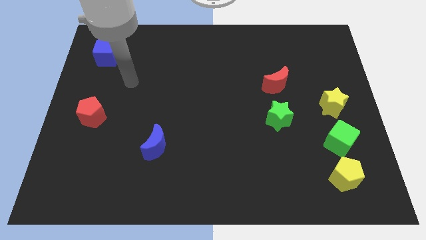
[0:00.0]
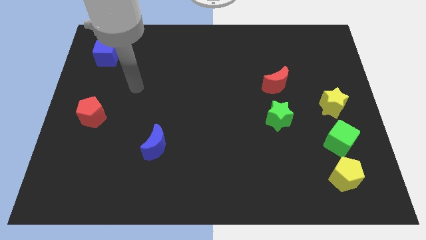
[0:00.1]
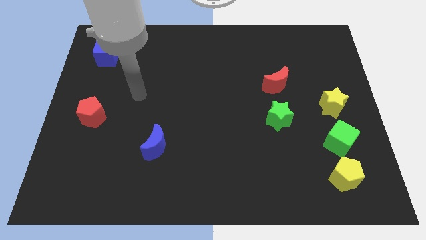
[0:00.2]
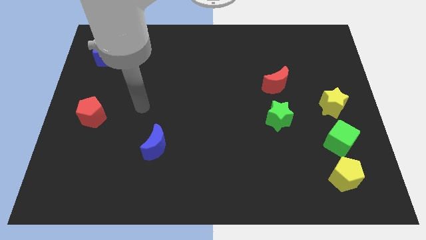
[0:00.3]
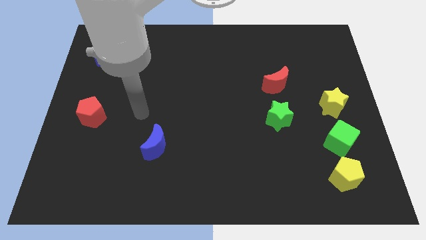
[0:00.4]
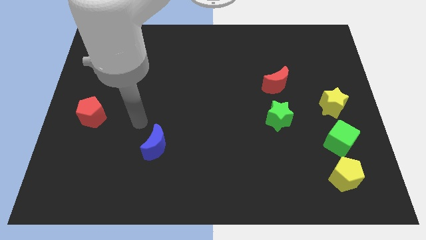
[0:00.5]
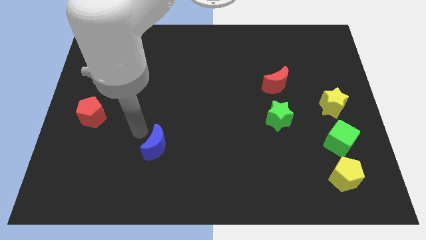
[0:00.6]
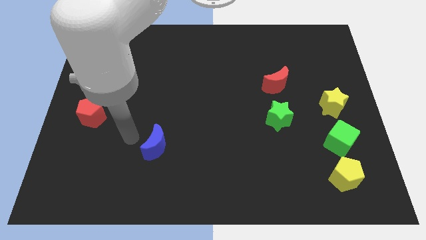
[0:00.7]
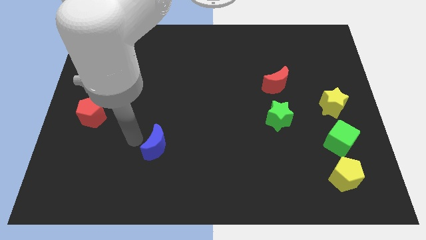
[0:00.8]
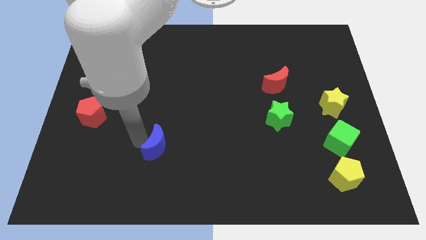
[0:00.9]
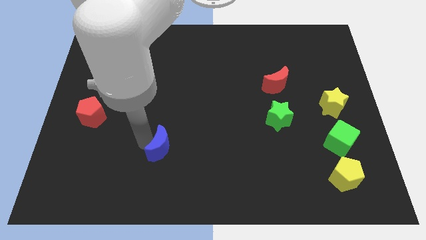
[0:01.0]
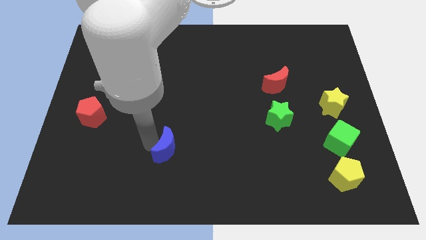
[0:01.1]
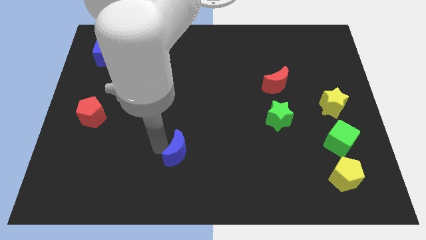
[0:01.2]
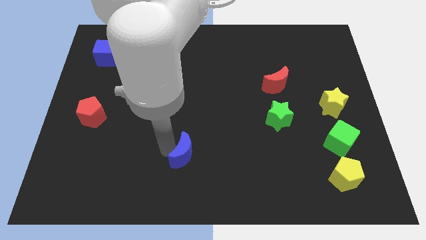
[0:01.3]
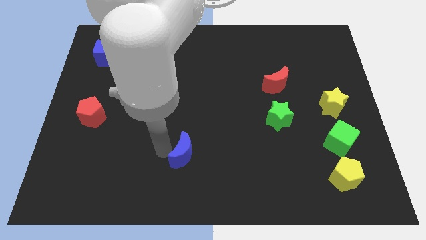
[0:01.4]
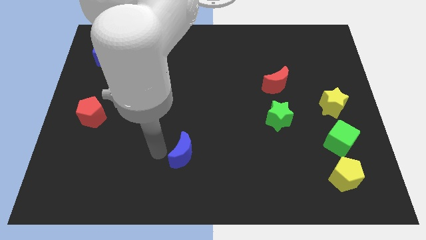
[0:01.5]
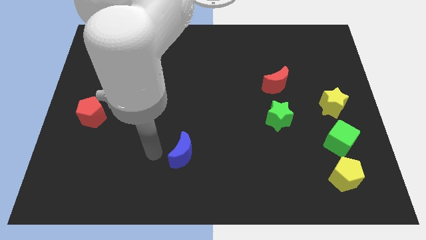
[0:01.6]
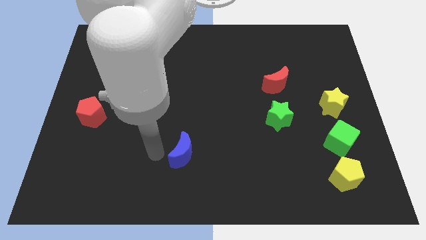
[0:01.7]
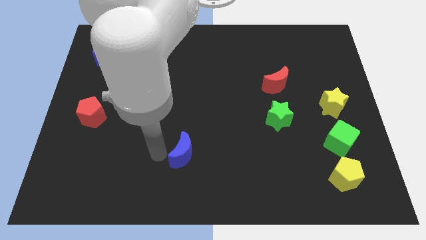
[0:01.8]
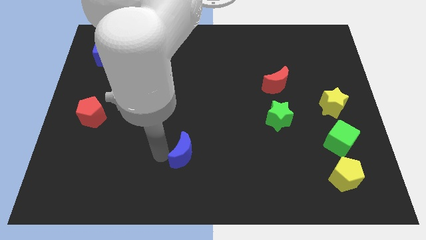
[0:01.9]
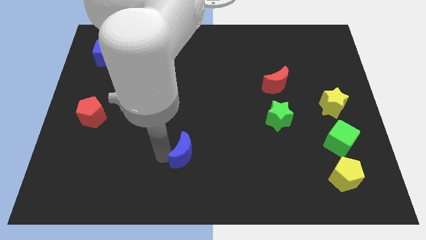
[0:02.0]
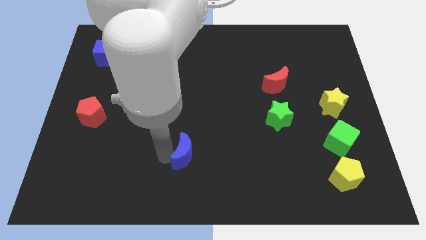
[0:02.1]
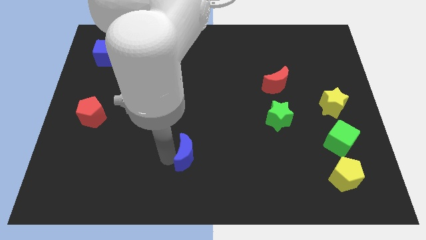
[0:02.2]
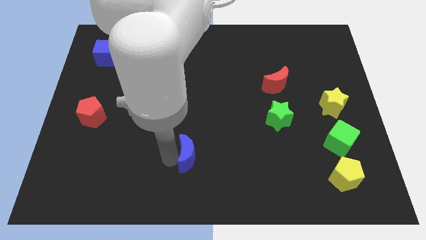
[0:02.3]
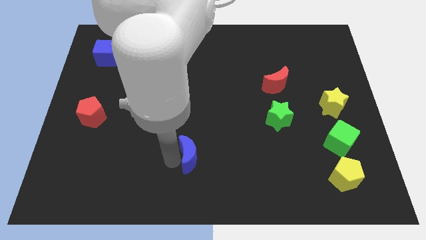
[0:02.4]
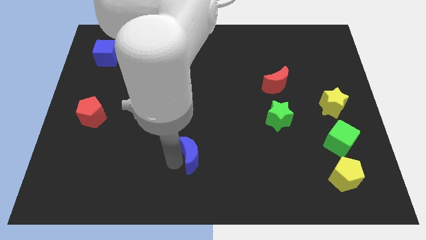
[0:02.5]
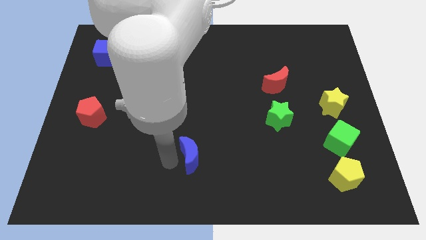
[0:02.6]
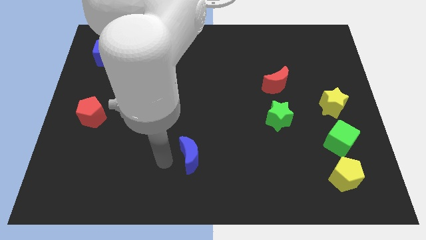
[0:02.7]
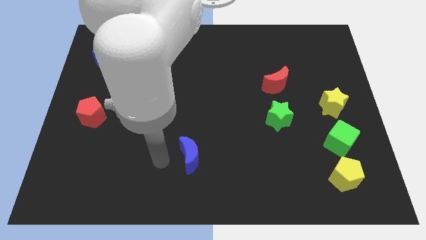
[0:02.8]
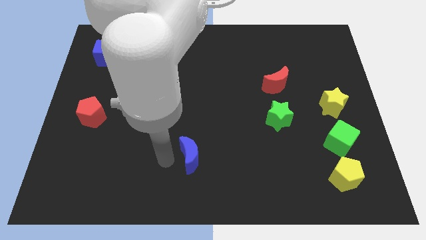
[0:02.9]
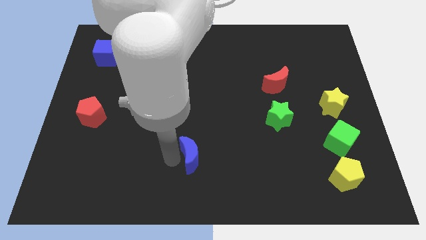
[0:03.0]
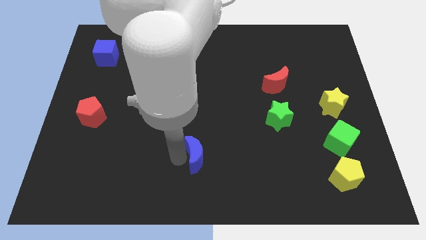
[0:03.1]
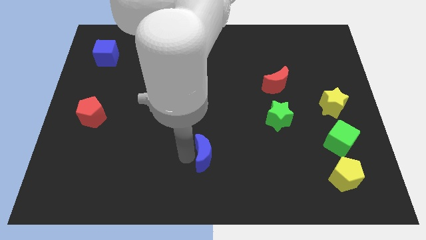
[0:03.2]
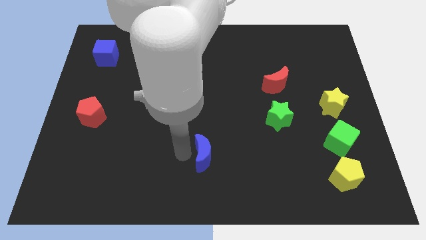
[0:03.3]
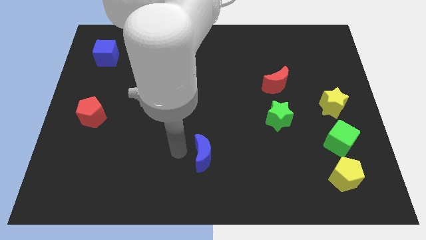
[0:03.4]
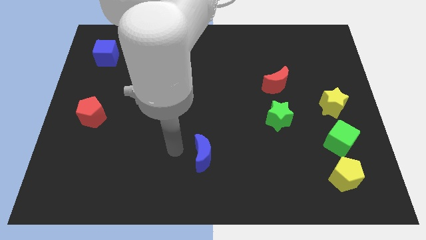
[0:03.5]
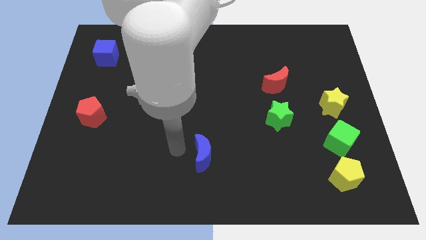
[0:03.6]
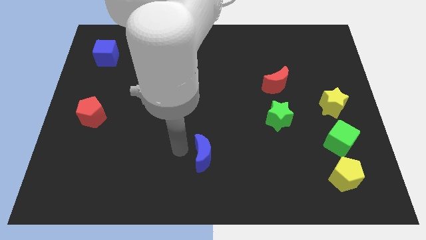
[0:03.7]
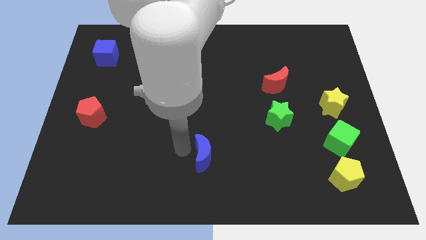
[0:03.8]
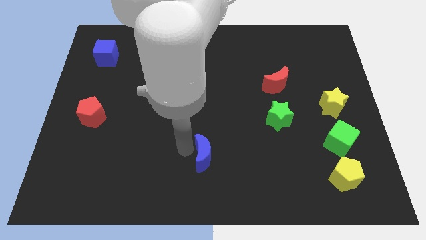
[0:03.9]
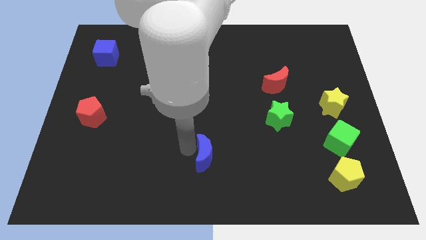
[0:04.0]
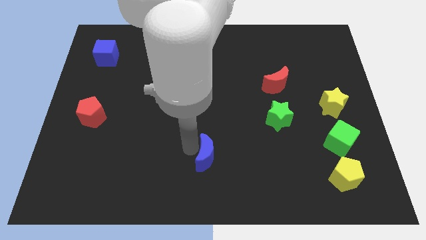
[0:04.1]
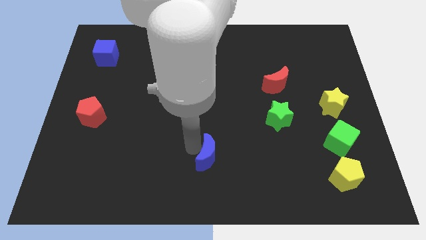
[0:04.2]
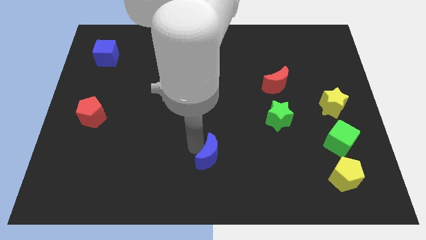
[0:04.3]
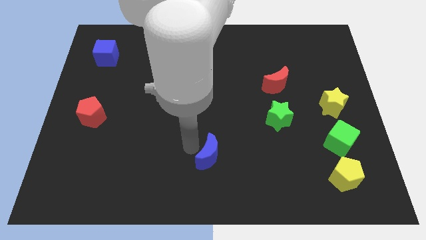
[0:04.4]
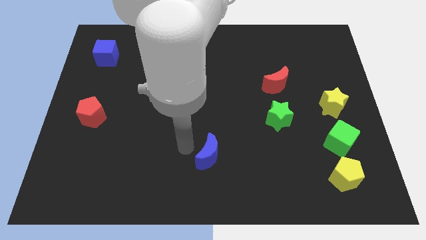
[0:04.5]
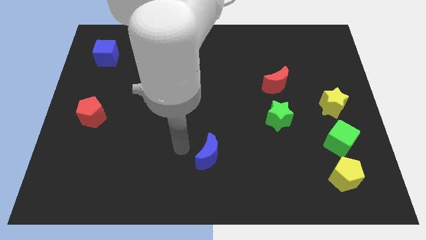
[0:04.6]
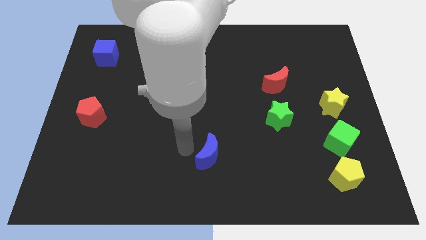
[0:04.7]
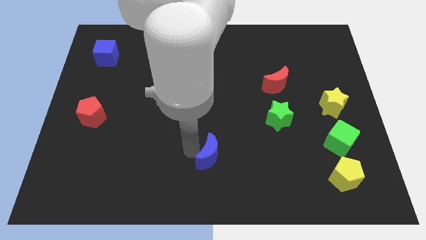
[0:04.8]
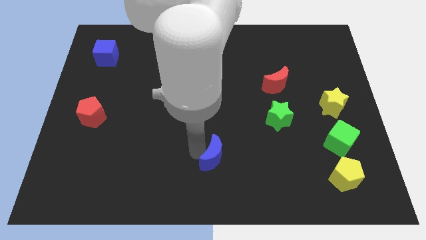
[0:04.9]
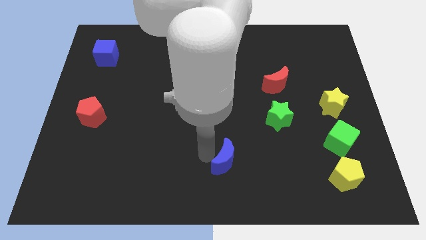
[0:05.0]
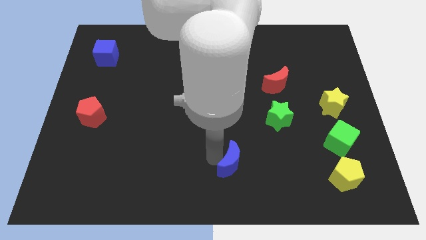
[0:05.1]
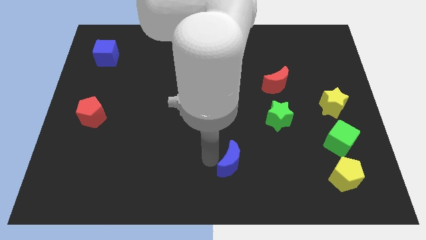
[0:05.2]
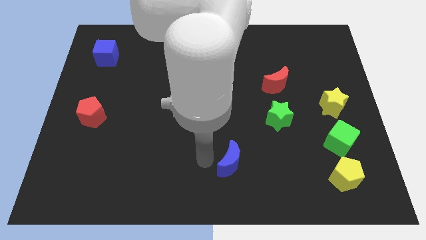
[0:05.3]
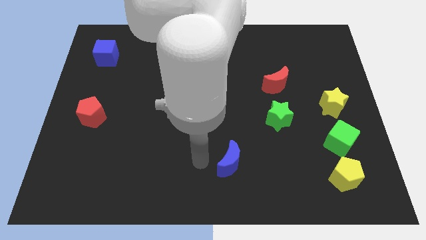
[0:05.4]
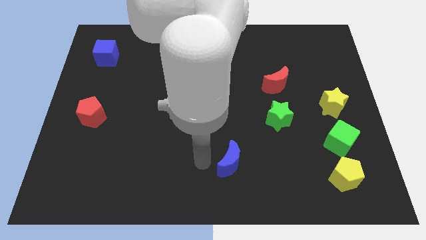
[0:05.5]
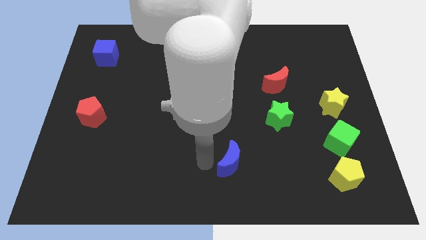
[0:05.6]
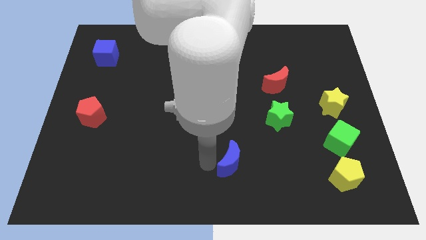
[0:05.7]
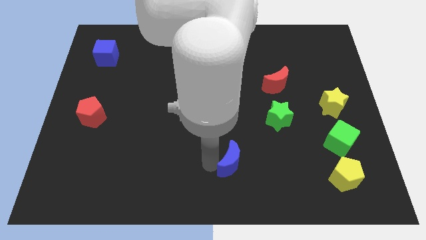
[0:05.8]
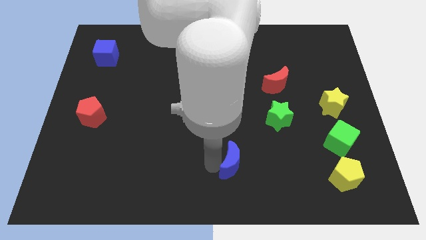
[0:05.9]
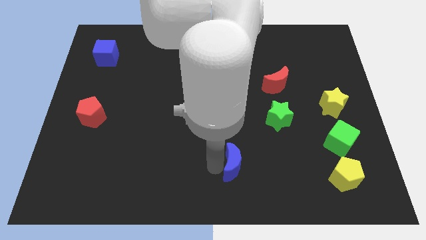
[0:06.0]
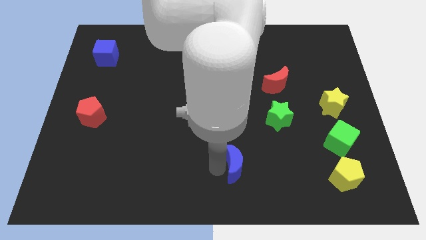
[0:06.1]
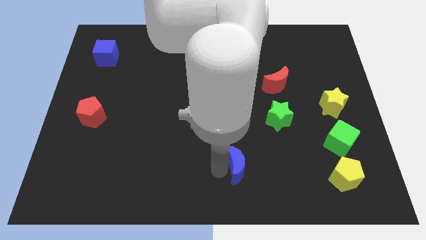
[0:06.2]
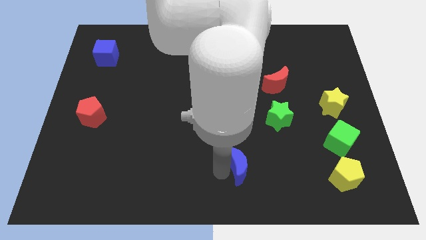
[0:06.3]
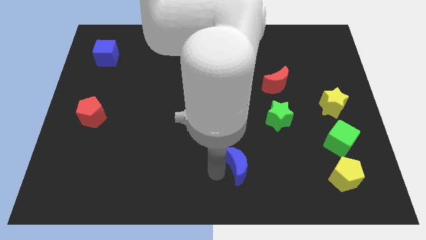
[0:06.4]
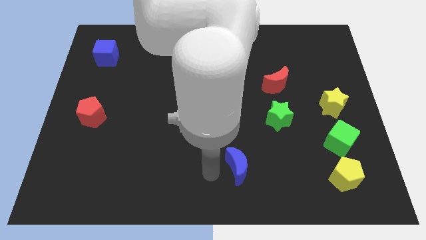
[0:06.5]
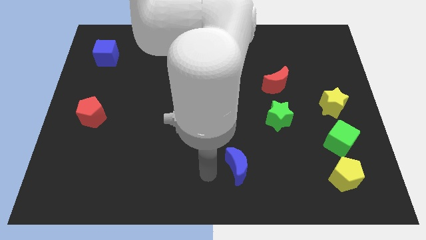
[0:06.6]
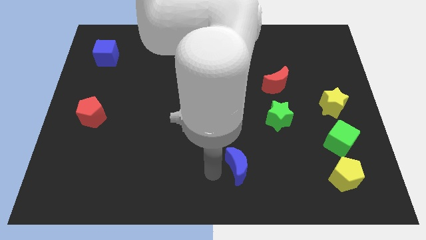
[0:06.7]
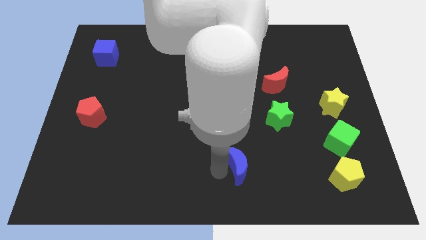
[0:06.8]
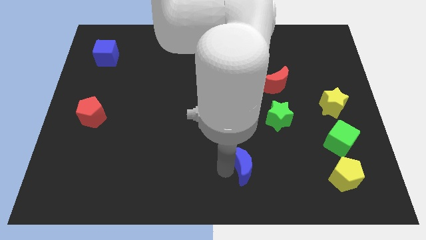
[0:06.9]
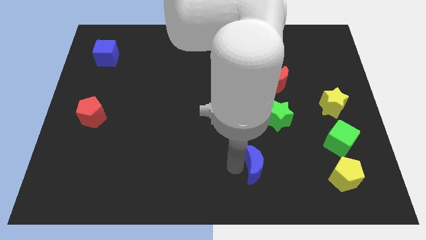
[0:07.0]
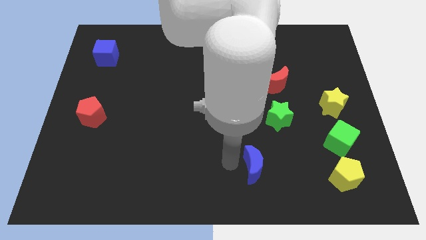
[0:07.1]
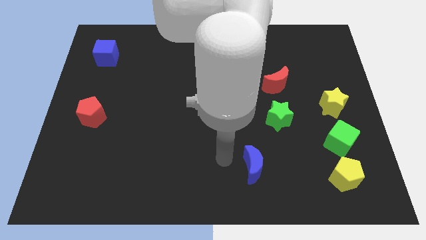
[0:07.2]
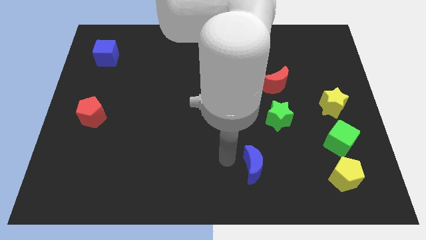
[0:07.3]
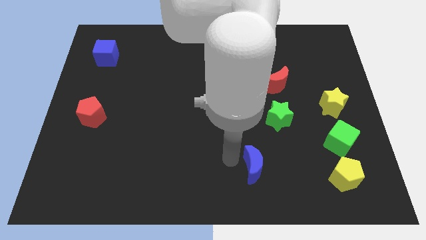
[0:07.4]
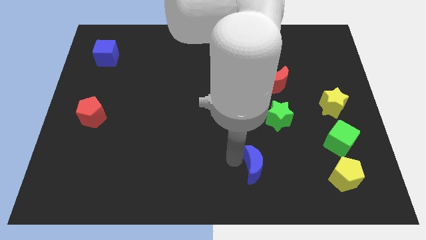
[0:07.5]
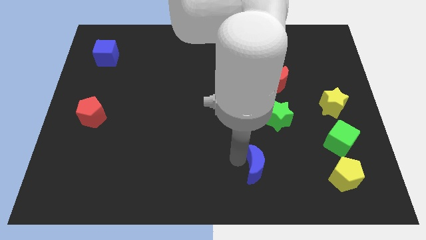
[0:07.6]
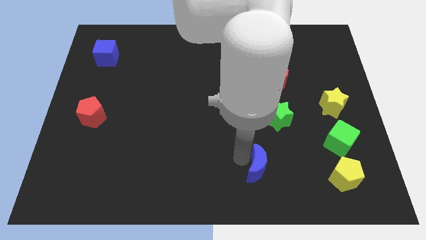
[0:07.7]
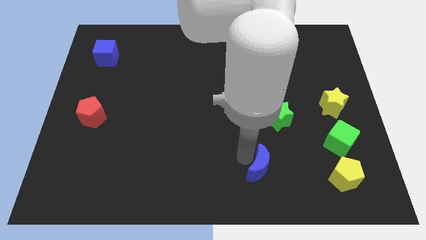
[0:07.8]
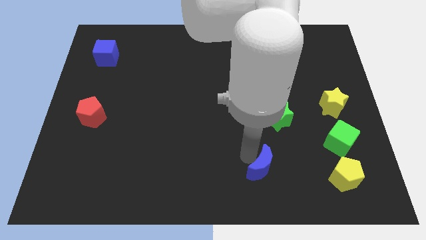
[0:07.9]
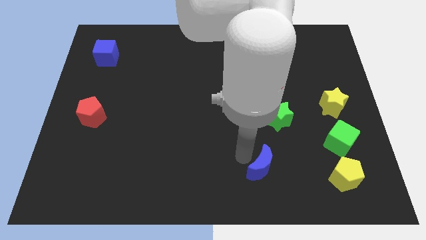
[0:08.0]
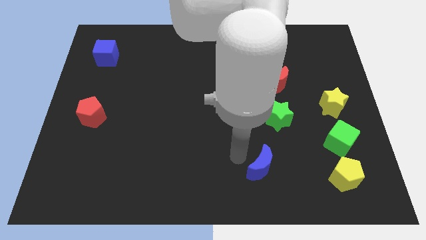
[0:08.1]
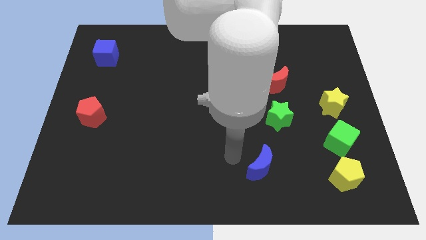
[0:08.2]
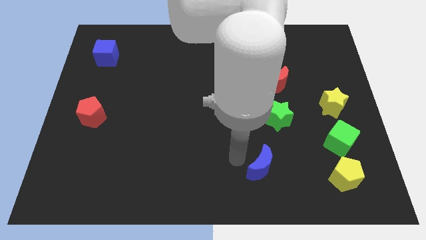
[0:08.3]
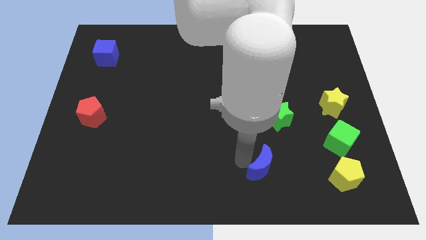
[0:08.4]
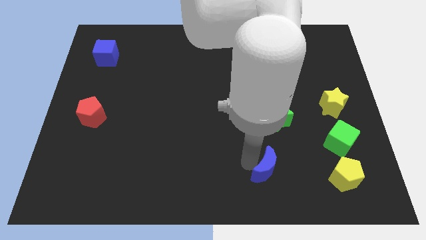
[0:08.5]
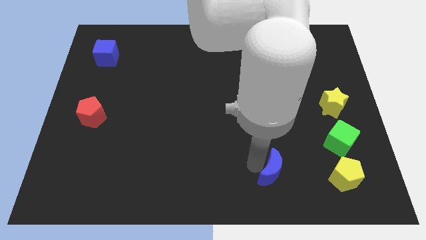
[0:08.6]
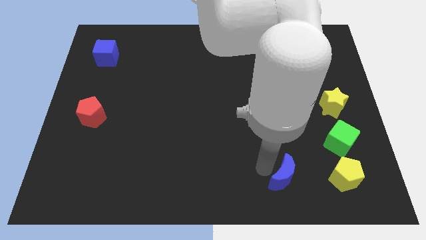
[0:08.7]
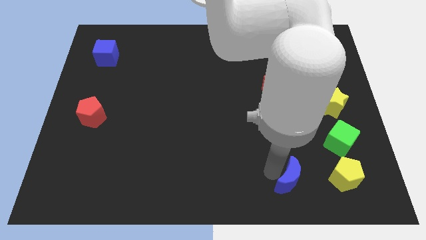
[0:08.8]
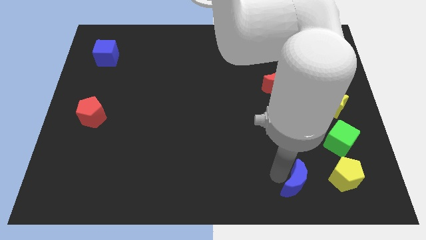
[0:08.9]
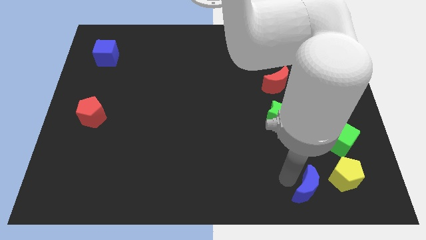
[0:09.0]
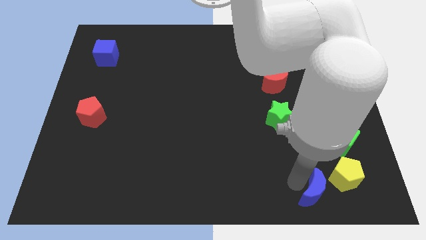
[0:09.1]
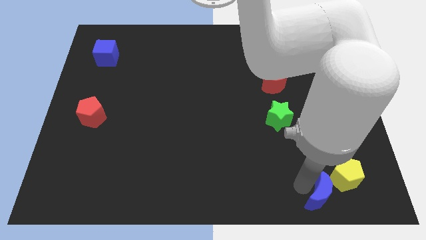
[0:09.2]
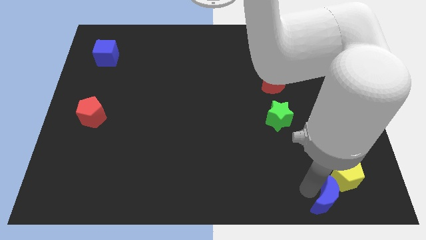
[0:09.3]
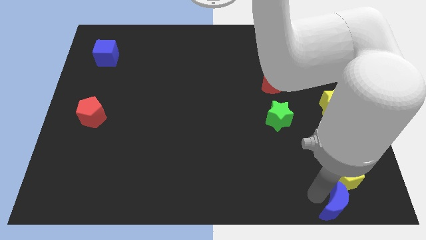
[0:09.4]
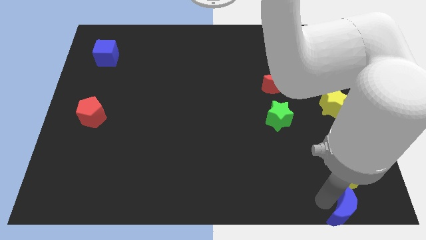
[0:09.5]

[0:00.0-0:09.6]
move the blue moon to the bottom right
